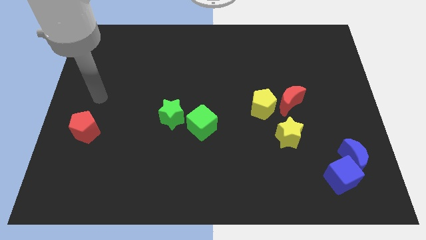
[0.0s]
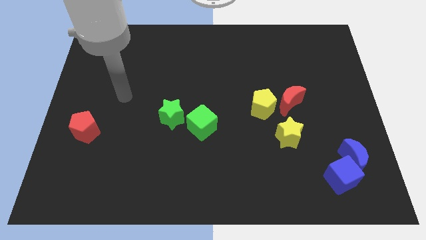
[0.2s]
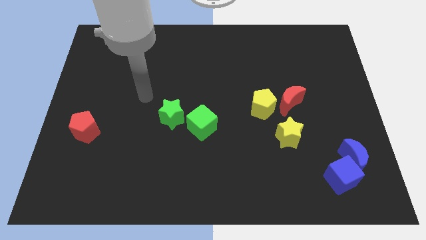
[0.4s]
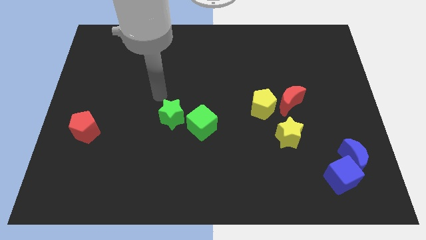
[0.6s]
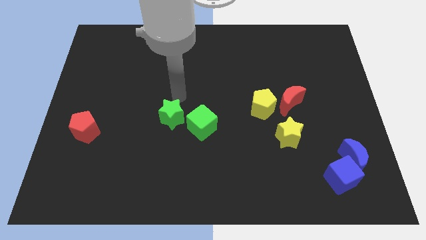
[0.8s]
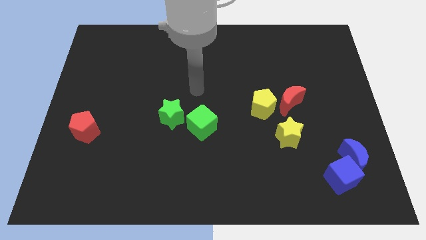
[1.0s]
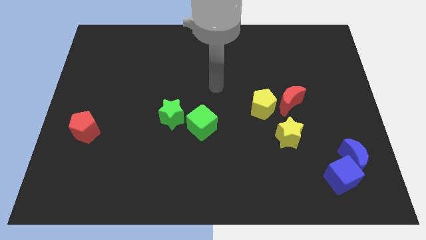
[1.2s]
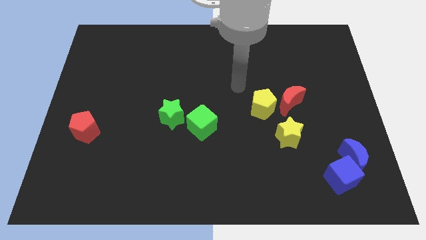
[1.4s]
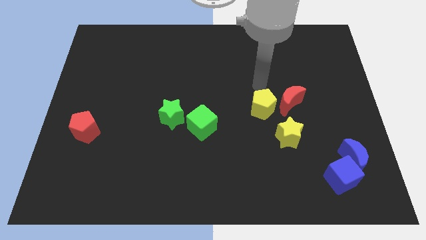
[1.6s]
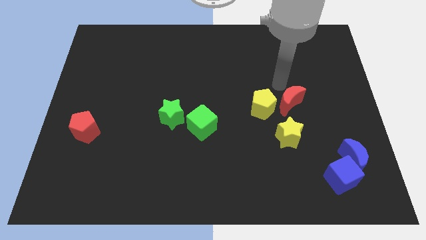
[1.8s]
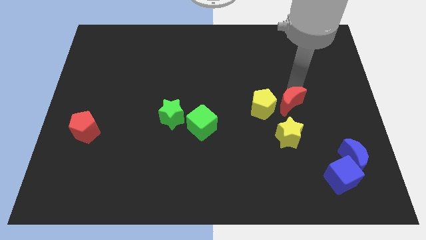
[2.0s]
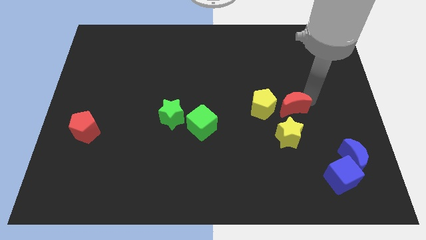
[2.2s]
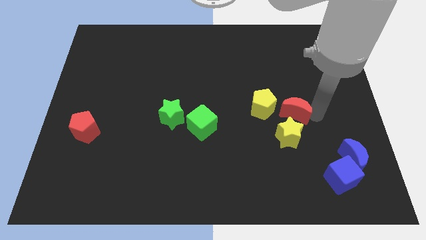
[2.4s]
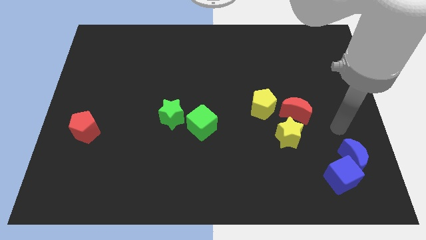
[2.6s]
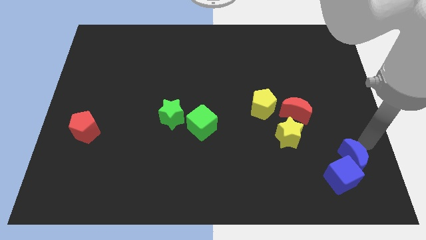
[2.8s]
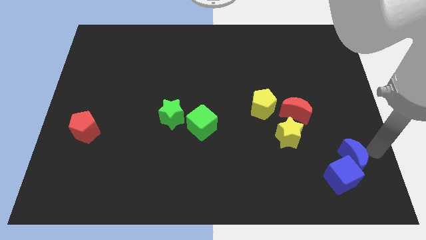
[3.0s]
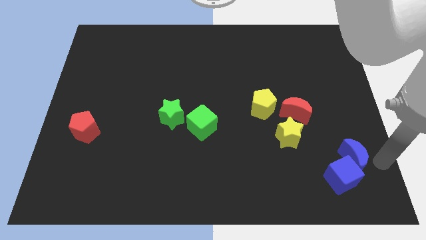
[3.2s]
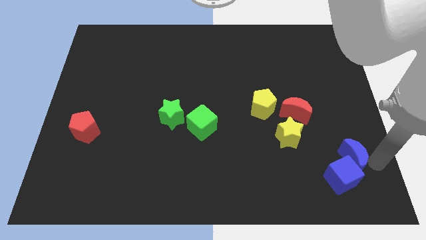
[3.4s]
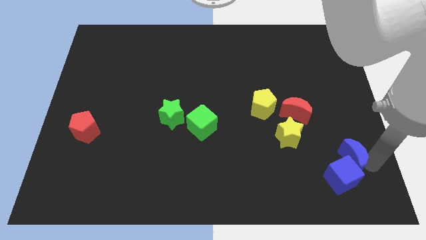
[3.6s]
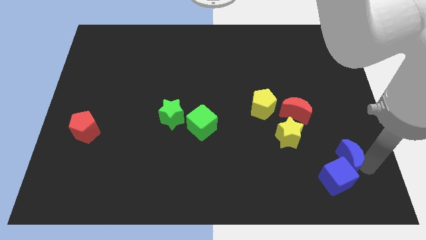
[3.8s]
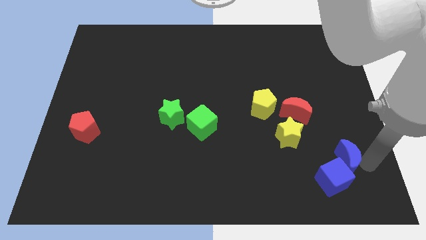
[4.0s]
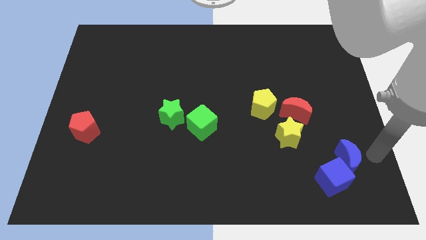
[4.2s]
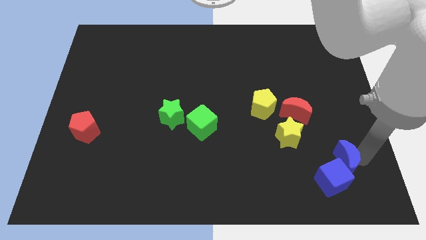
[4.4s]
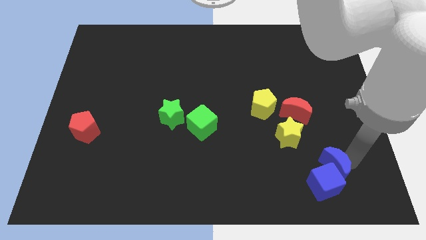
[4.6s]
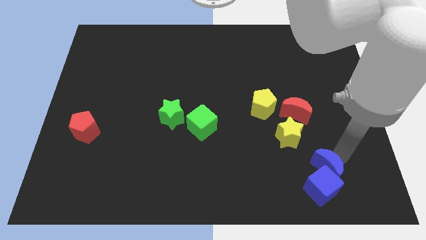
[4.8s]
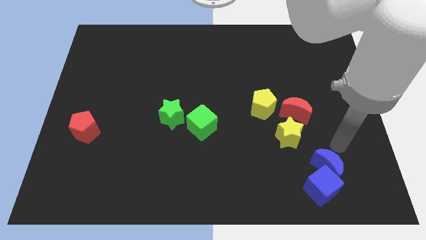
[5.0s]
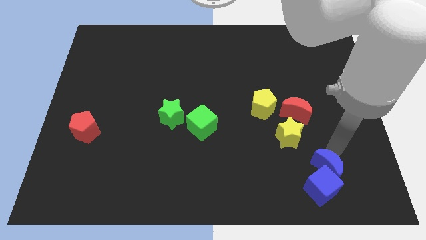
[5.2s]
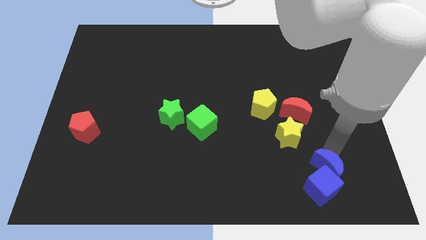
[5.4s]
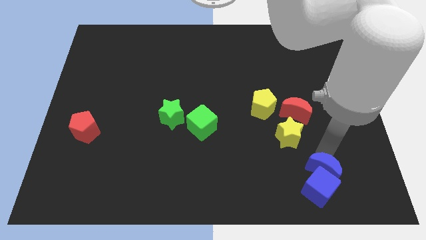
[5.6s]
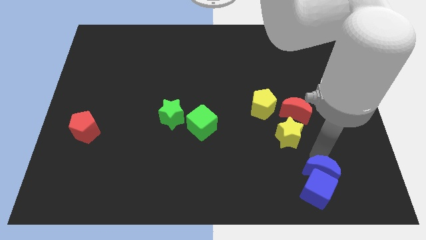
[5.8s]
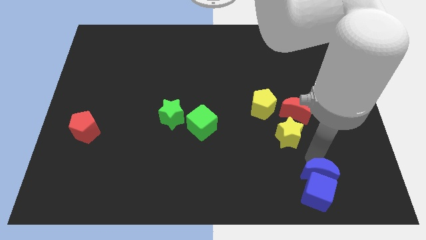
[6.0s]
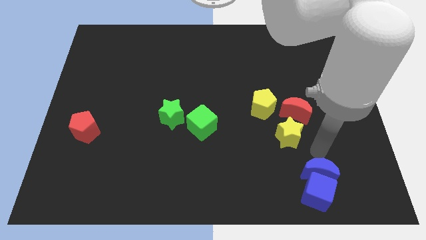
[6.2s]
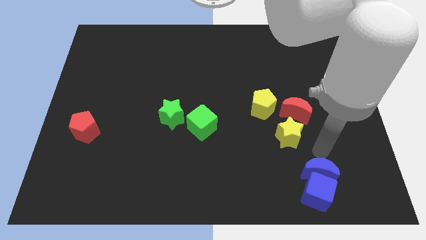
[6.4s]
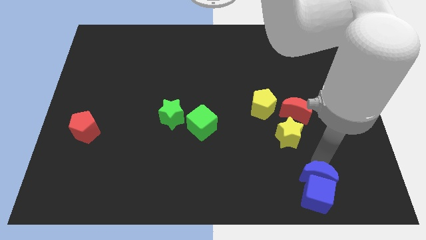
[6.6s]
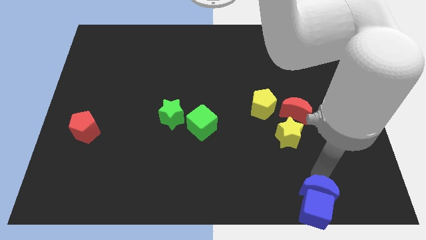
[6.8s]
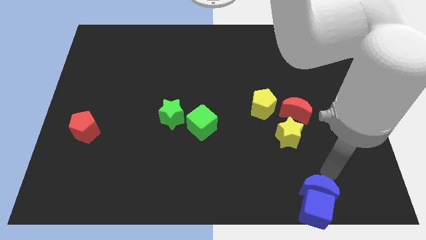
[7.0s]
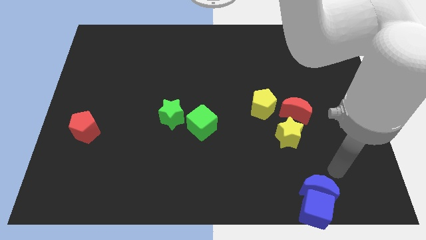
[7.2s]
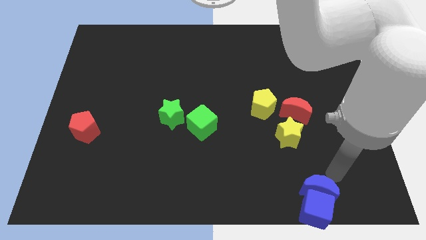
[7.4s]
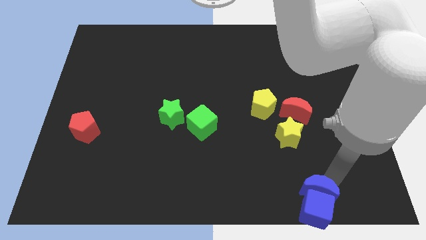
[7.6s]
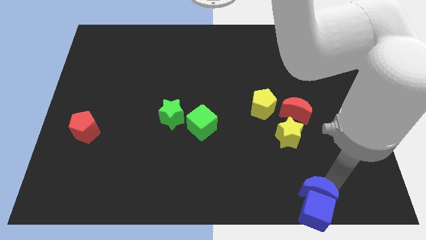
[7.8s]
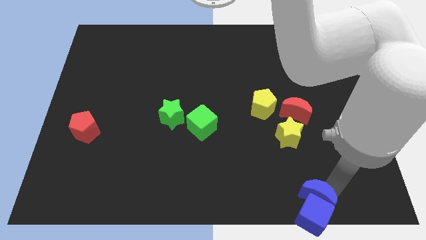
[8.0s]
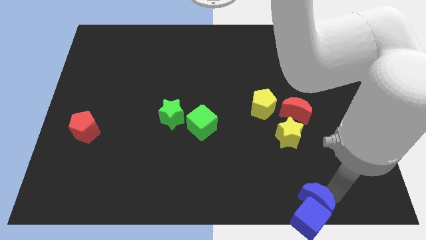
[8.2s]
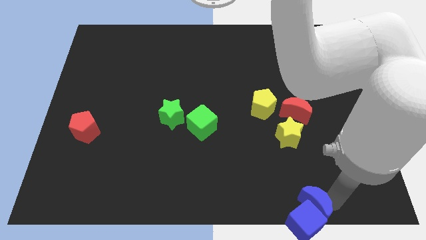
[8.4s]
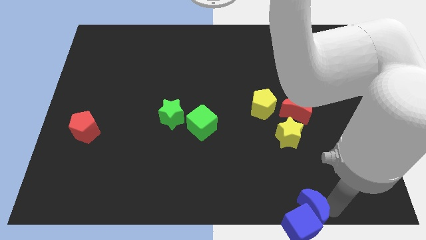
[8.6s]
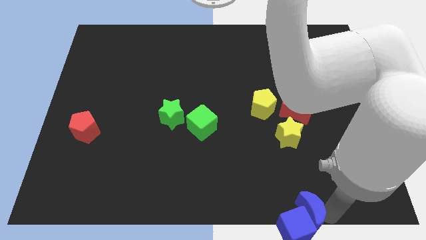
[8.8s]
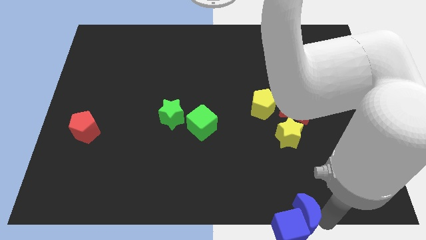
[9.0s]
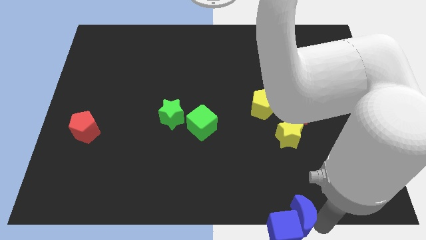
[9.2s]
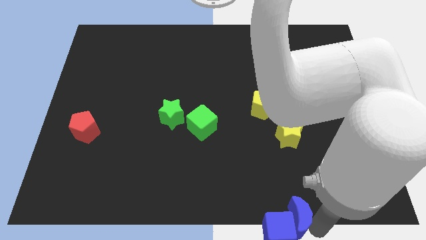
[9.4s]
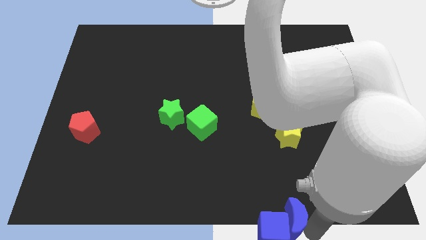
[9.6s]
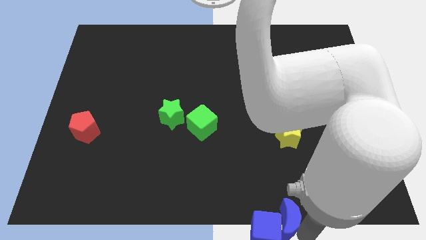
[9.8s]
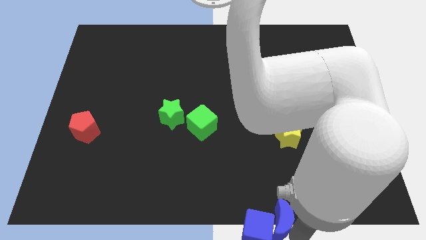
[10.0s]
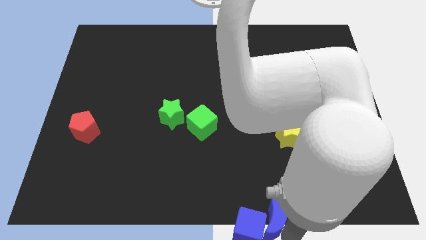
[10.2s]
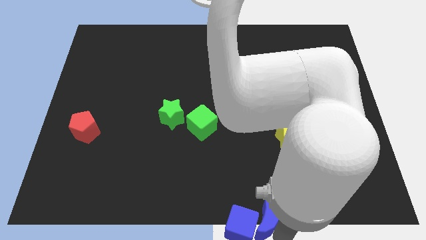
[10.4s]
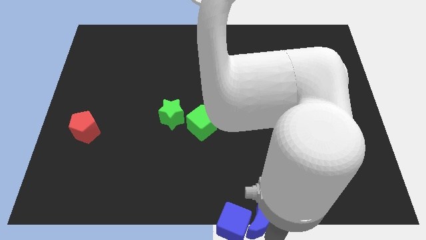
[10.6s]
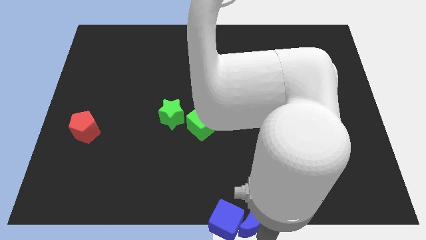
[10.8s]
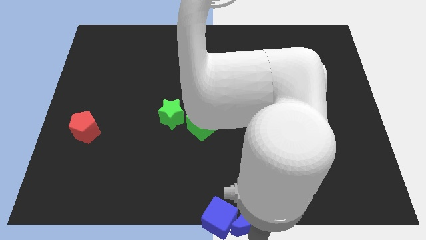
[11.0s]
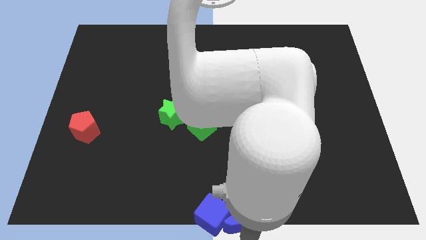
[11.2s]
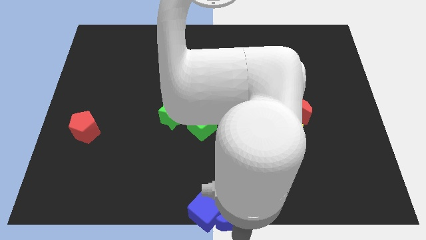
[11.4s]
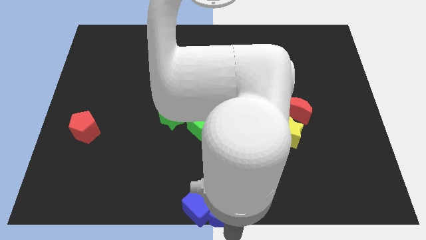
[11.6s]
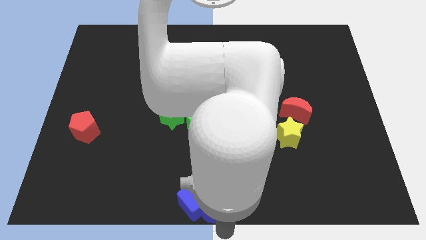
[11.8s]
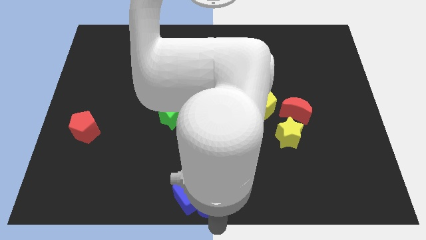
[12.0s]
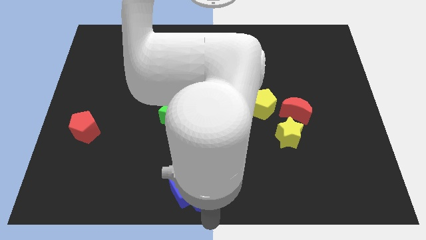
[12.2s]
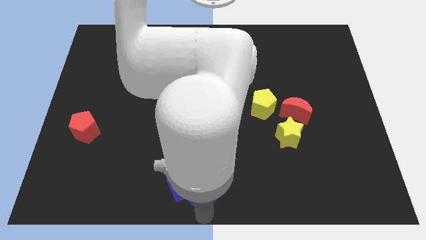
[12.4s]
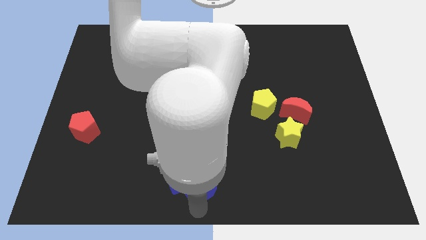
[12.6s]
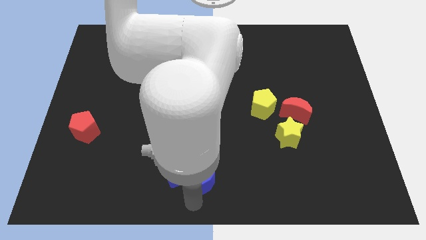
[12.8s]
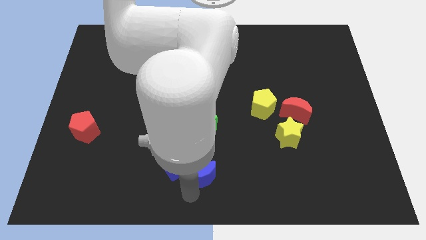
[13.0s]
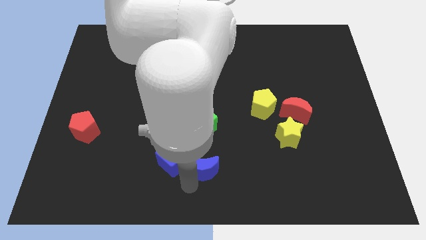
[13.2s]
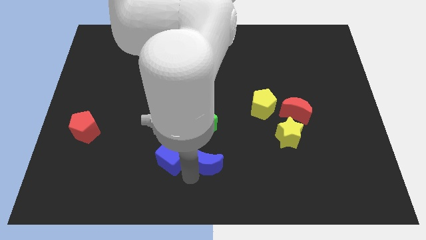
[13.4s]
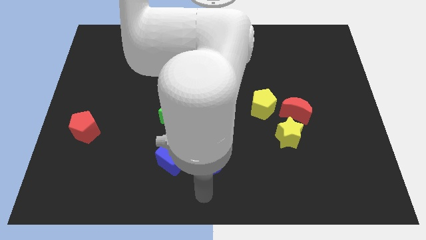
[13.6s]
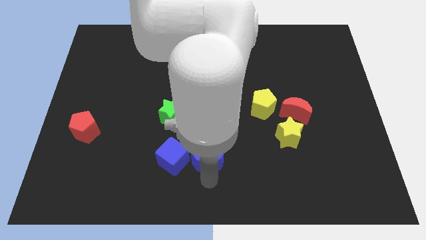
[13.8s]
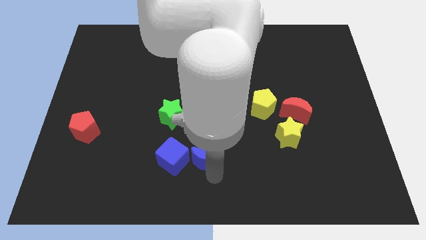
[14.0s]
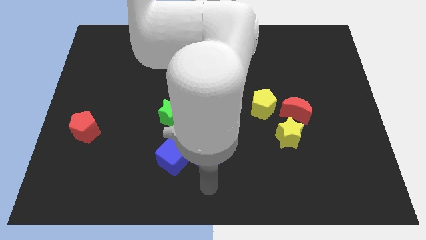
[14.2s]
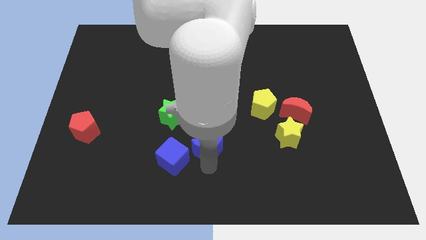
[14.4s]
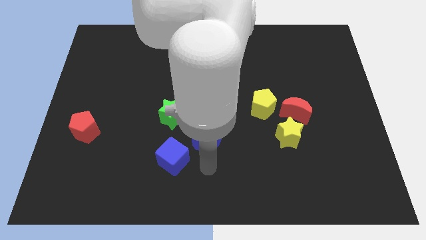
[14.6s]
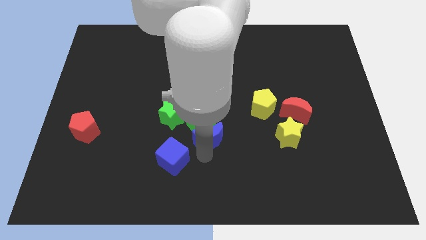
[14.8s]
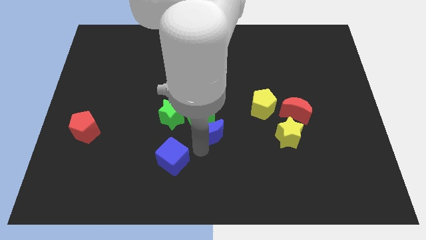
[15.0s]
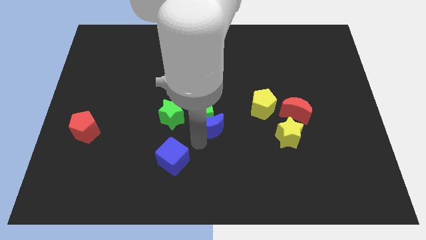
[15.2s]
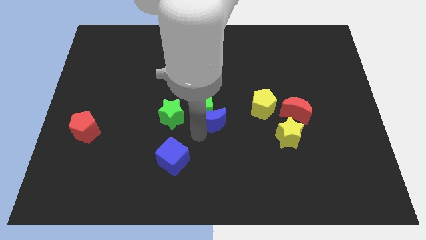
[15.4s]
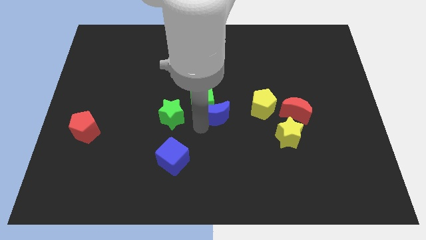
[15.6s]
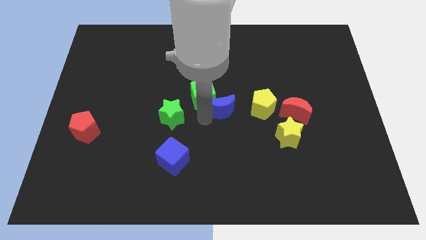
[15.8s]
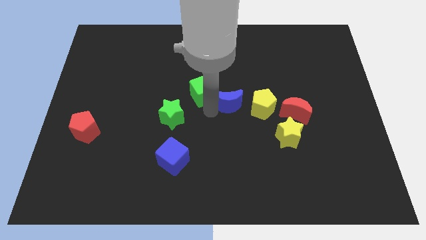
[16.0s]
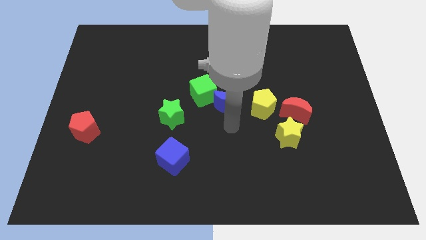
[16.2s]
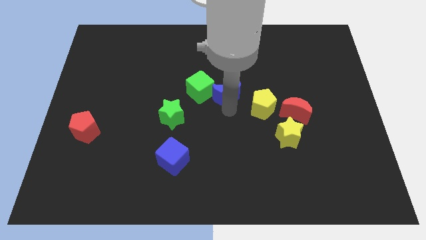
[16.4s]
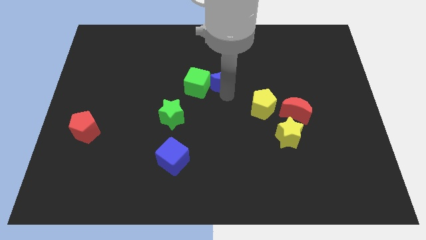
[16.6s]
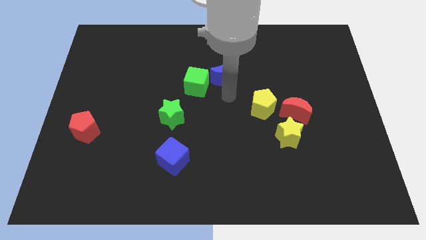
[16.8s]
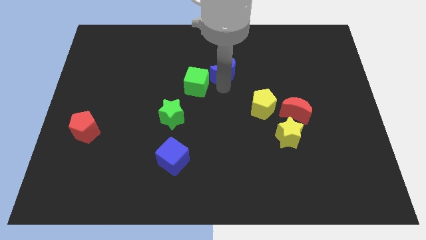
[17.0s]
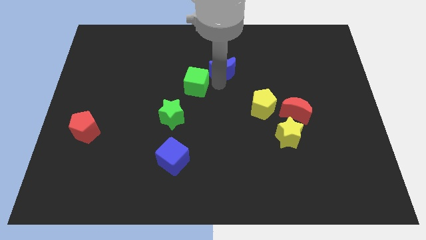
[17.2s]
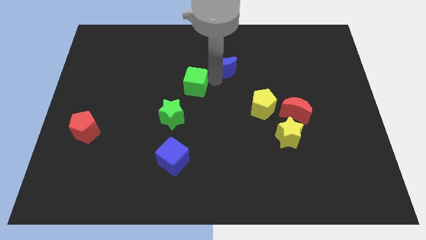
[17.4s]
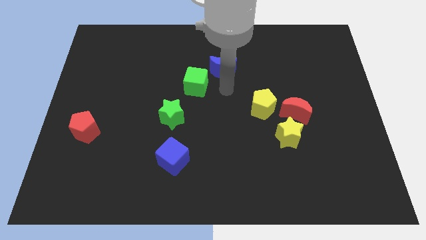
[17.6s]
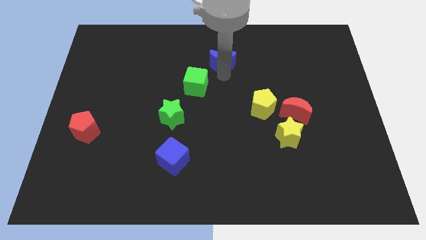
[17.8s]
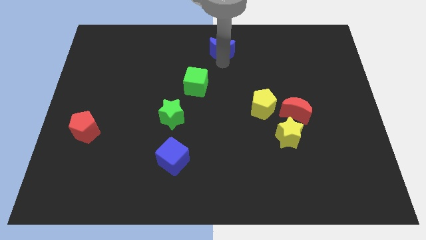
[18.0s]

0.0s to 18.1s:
move the blue moon to the top
